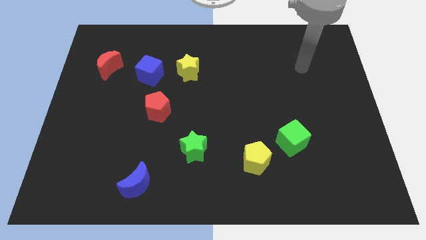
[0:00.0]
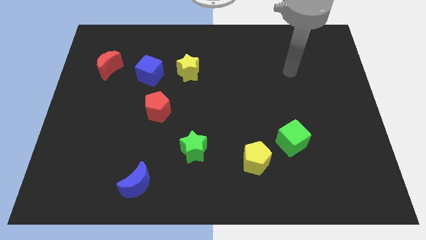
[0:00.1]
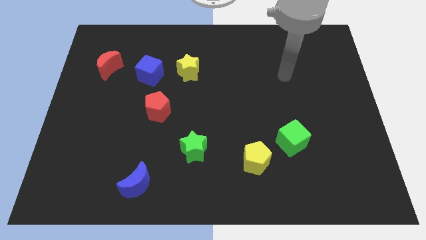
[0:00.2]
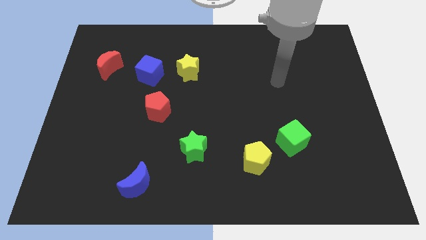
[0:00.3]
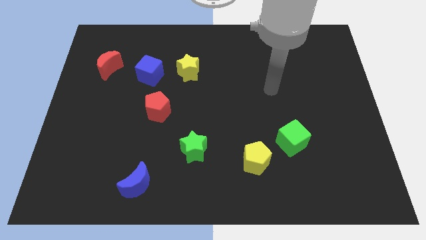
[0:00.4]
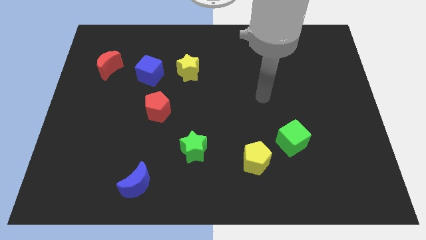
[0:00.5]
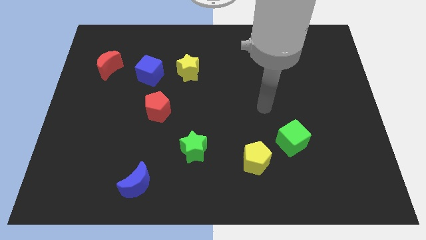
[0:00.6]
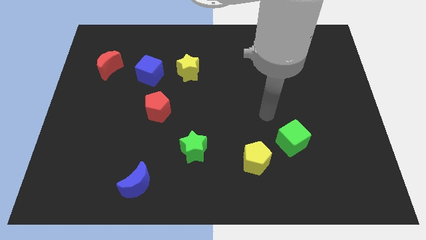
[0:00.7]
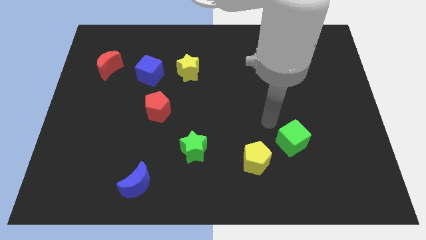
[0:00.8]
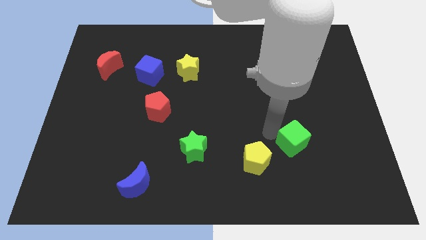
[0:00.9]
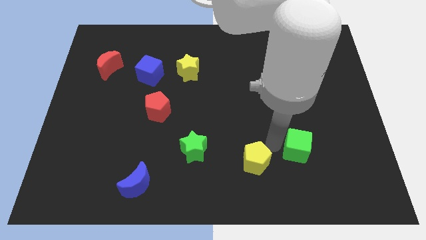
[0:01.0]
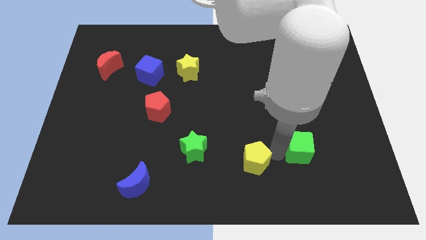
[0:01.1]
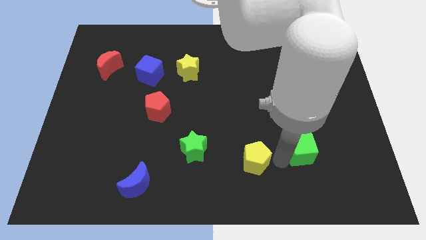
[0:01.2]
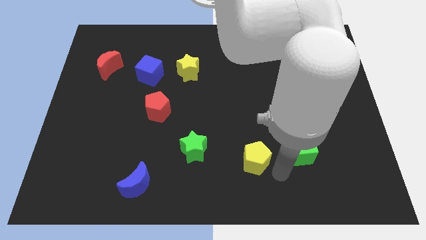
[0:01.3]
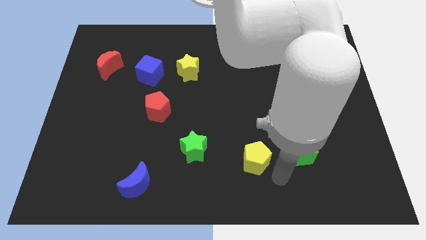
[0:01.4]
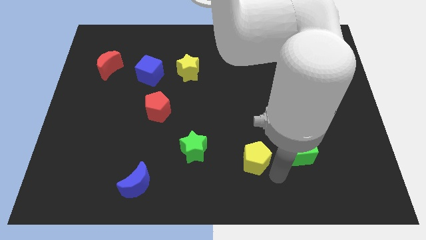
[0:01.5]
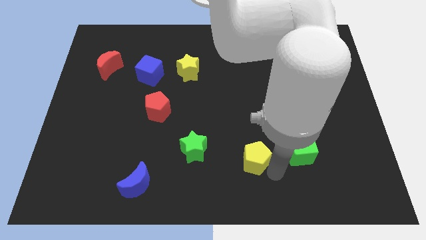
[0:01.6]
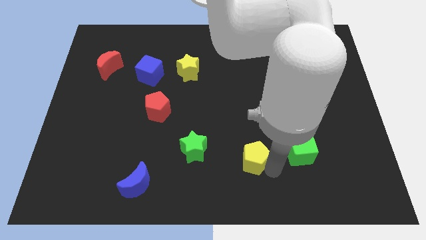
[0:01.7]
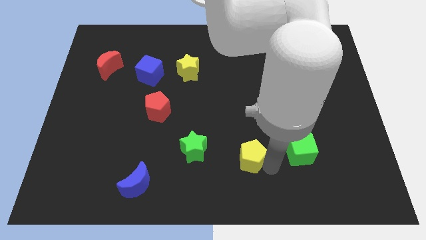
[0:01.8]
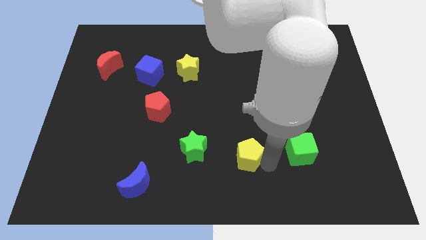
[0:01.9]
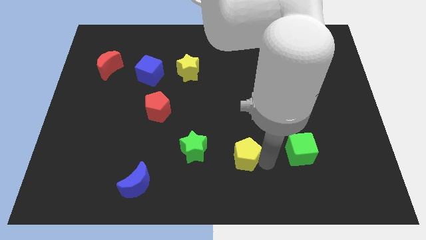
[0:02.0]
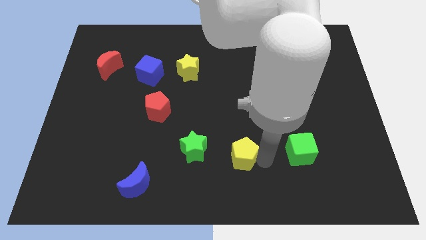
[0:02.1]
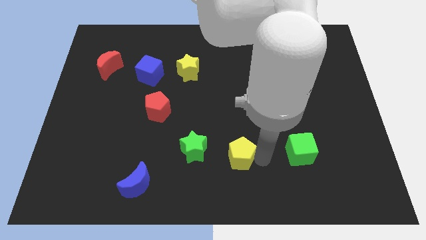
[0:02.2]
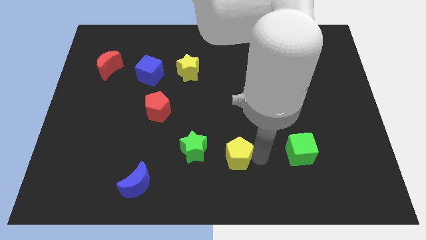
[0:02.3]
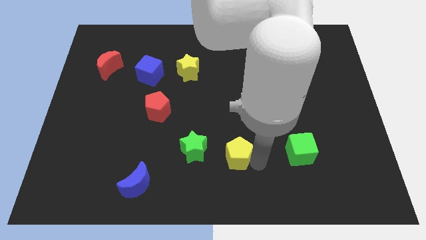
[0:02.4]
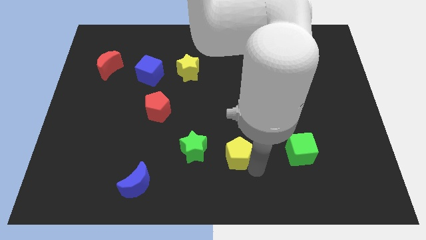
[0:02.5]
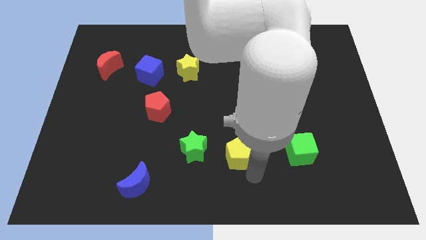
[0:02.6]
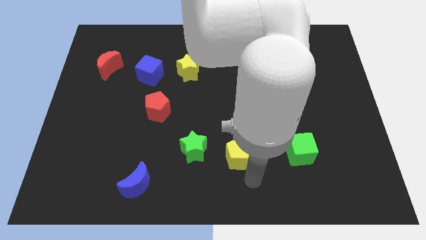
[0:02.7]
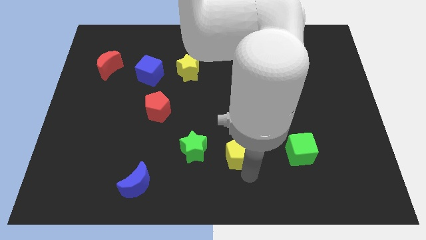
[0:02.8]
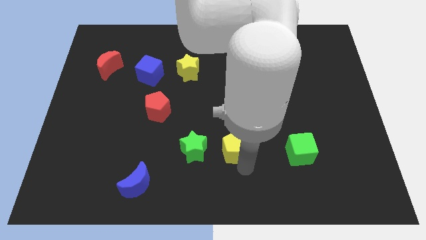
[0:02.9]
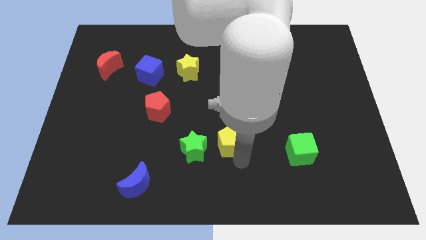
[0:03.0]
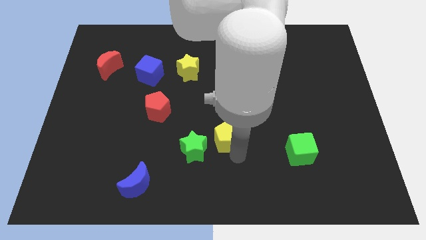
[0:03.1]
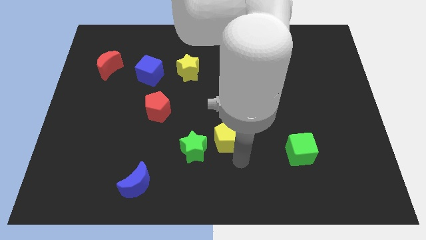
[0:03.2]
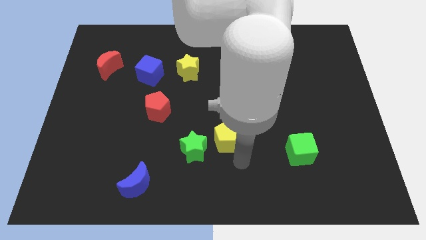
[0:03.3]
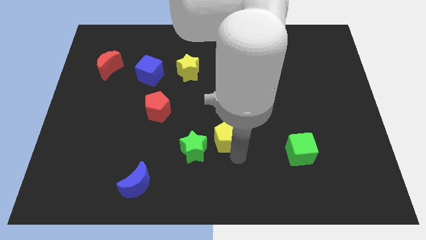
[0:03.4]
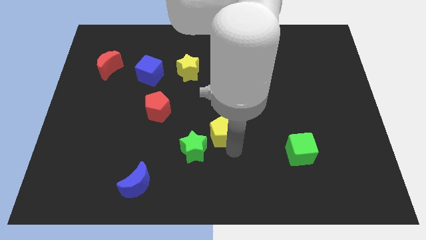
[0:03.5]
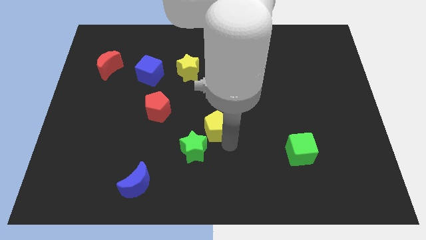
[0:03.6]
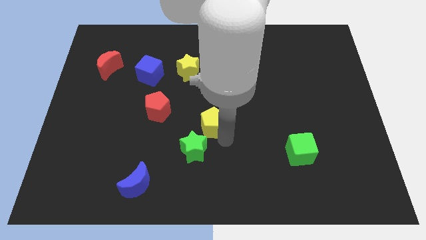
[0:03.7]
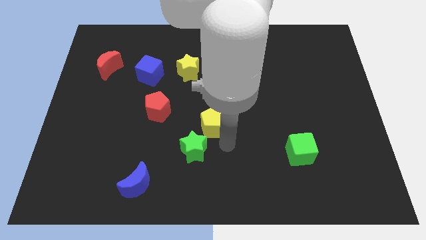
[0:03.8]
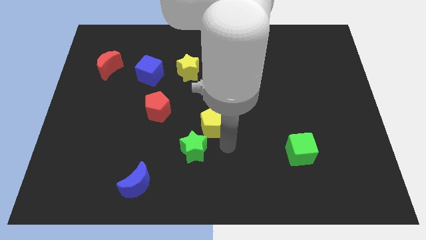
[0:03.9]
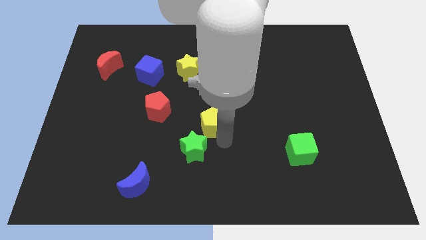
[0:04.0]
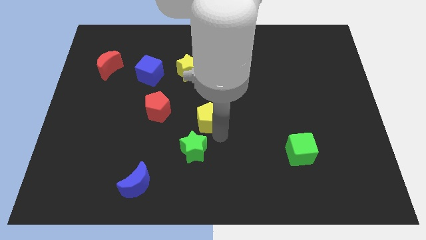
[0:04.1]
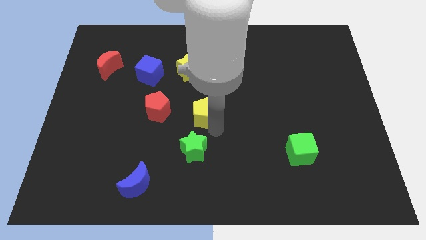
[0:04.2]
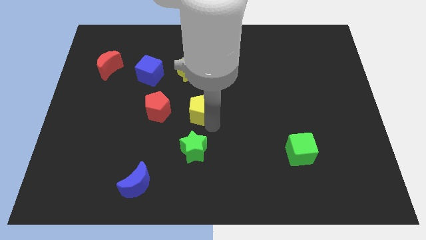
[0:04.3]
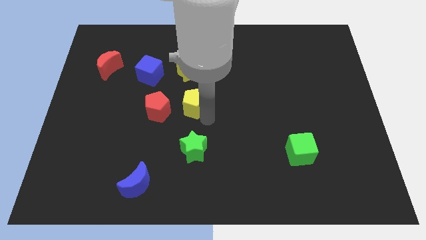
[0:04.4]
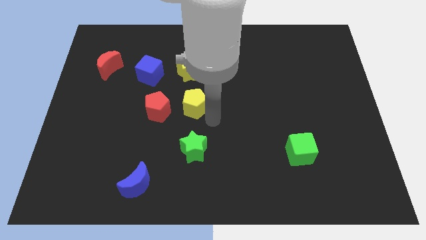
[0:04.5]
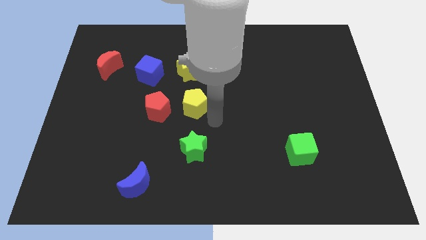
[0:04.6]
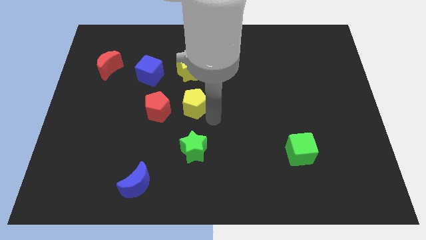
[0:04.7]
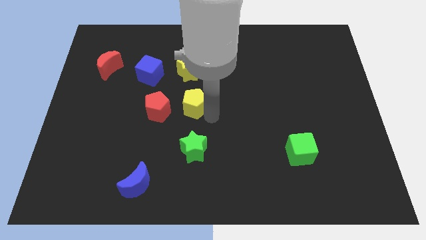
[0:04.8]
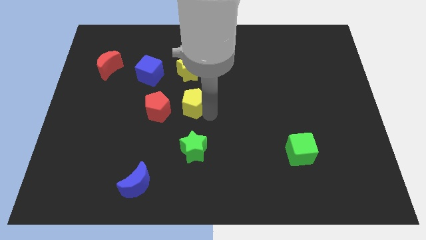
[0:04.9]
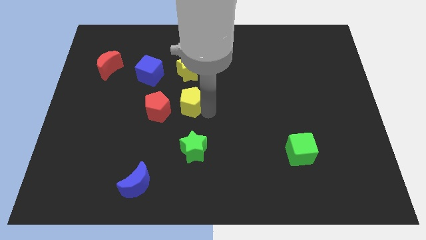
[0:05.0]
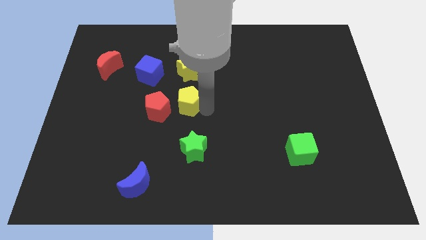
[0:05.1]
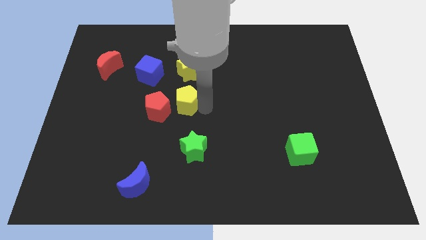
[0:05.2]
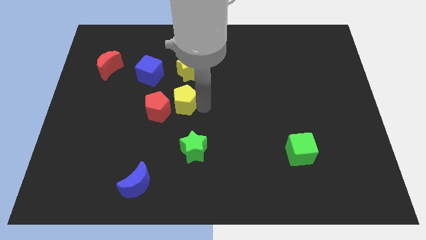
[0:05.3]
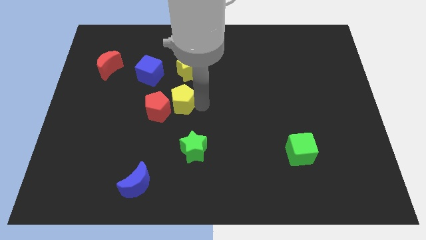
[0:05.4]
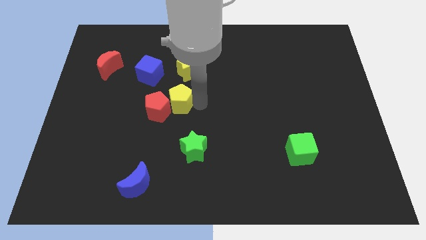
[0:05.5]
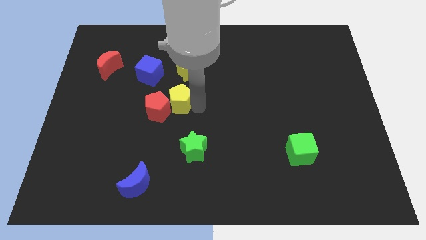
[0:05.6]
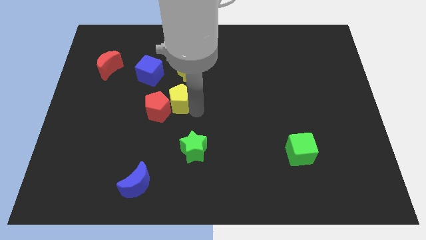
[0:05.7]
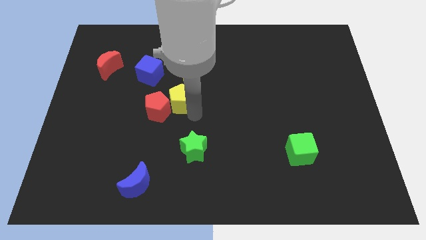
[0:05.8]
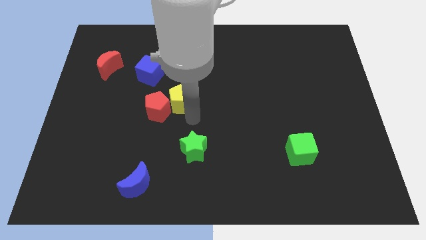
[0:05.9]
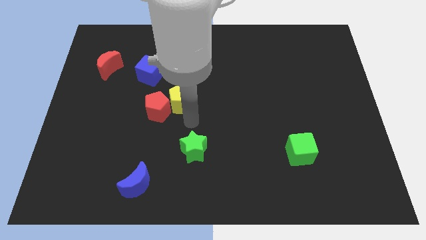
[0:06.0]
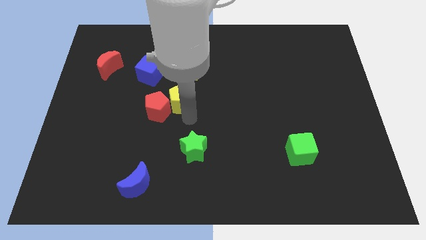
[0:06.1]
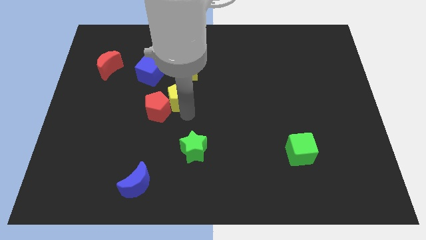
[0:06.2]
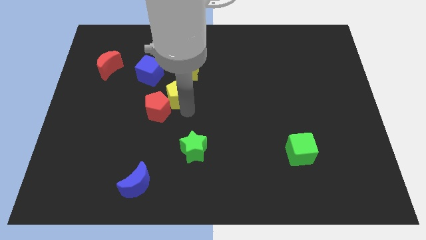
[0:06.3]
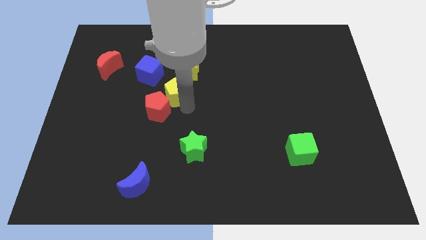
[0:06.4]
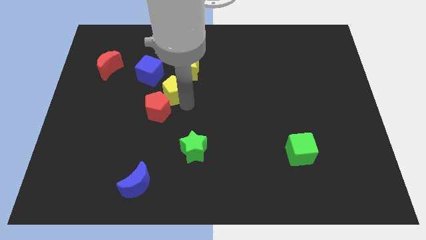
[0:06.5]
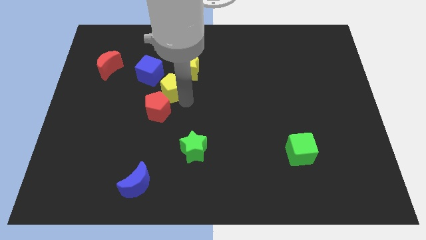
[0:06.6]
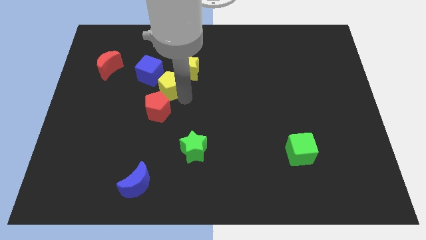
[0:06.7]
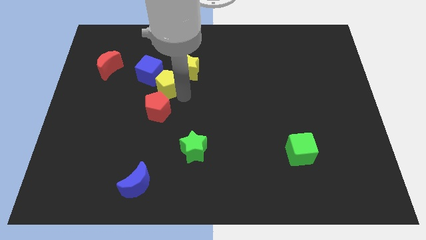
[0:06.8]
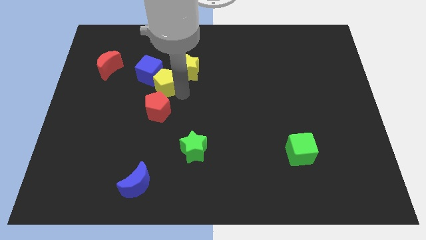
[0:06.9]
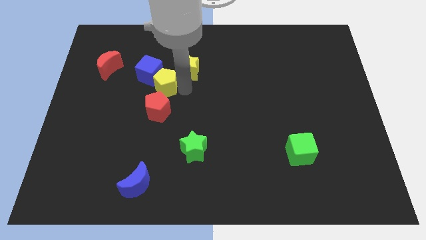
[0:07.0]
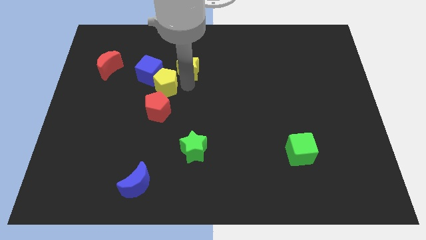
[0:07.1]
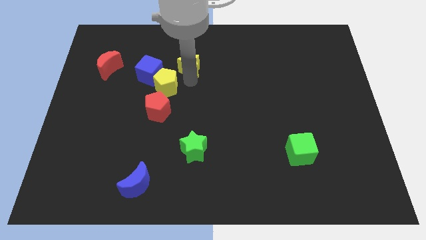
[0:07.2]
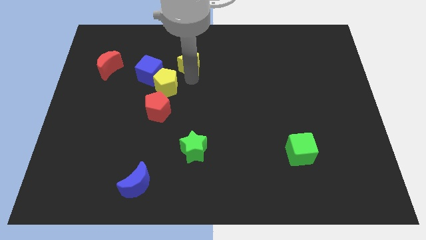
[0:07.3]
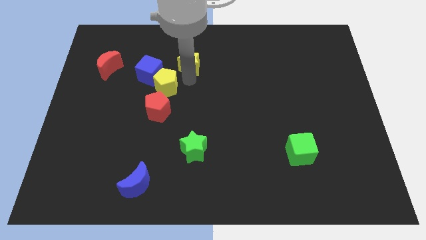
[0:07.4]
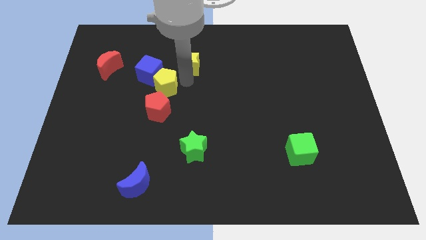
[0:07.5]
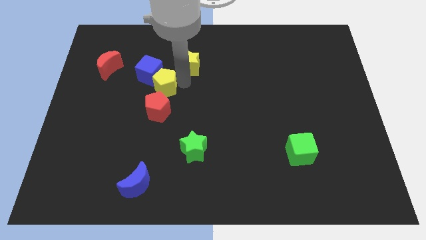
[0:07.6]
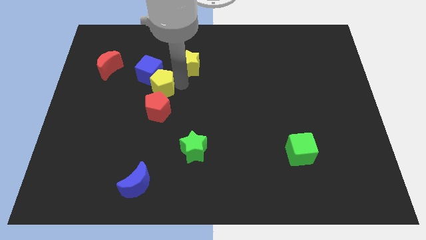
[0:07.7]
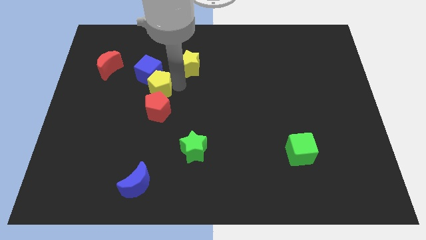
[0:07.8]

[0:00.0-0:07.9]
slide the yellow pentagon to the top left of the red pentagon
